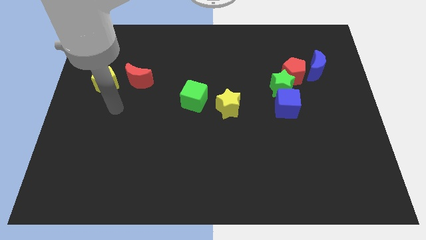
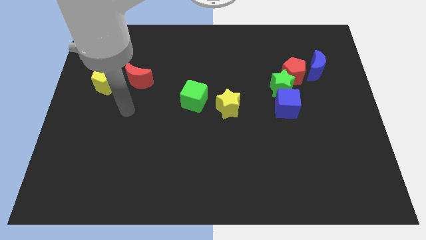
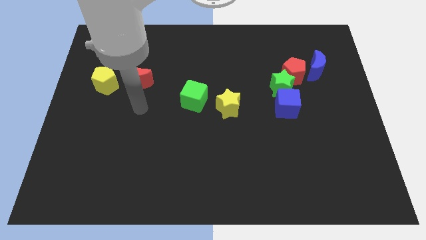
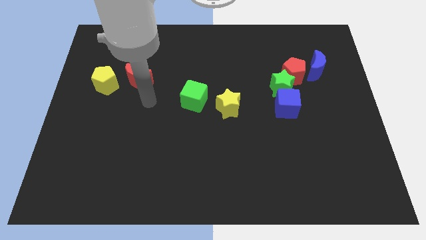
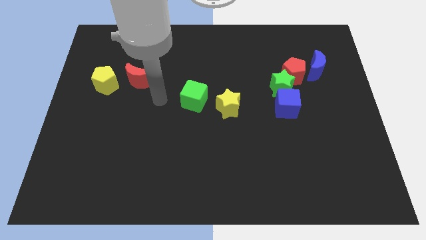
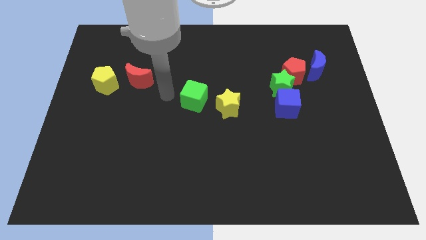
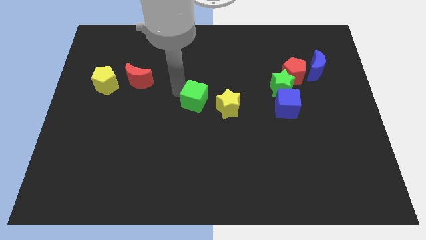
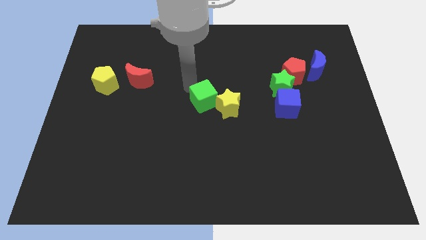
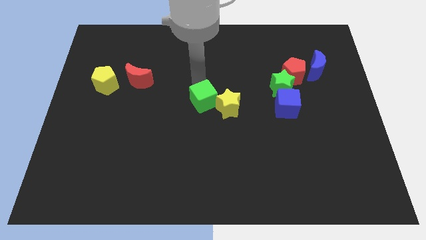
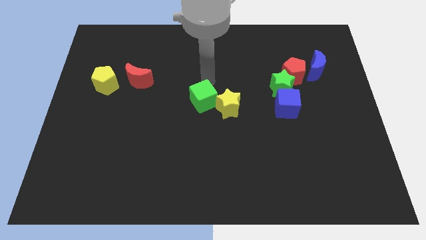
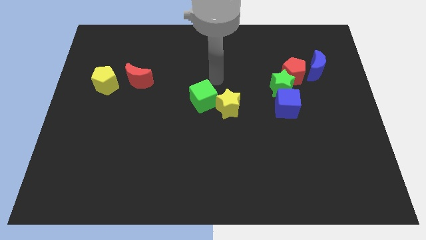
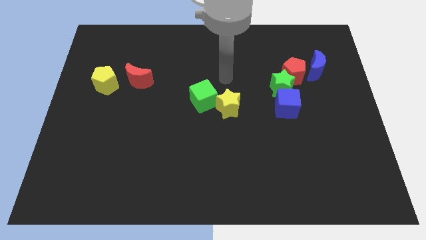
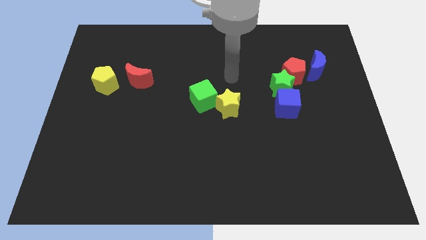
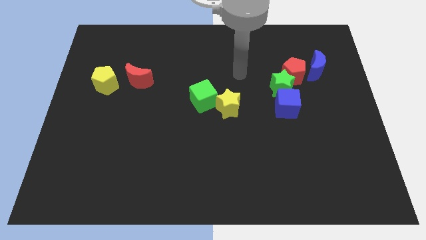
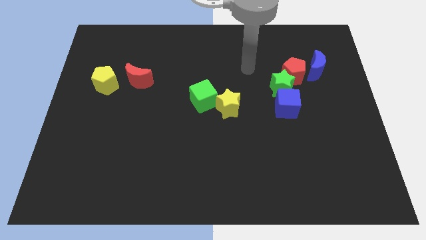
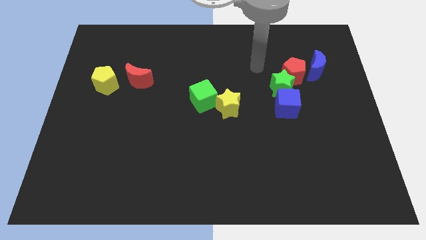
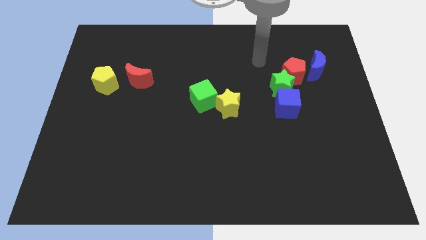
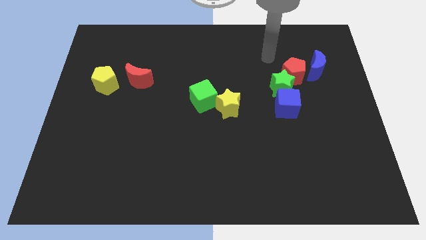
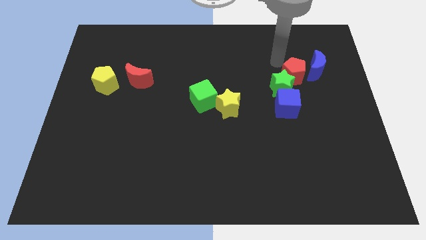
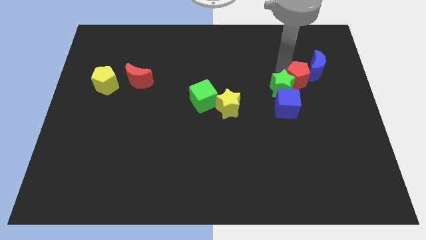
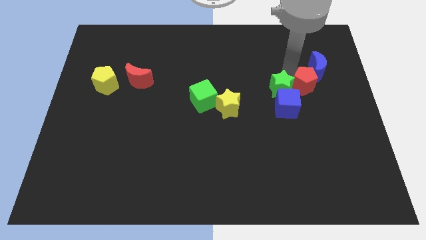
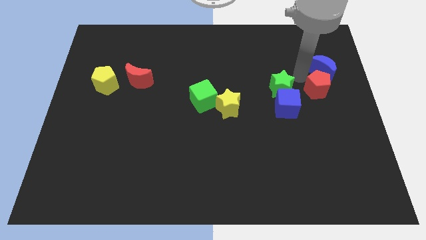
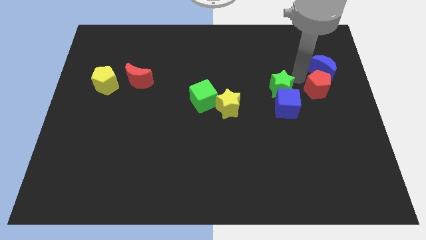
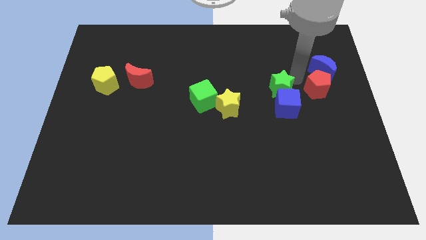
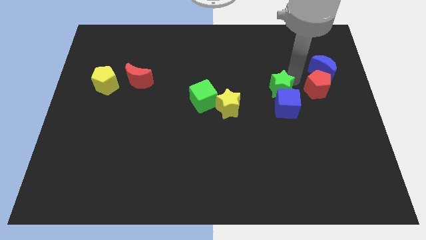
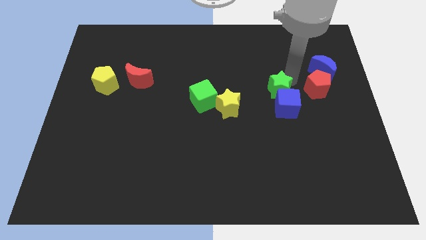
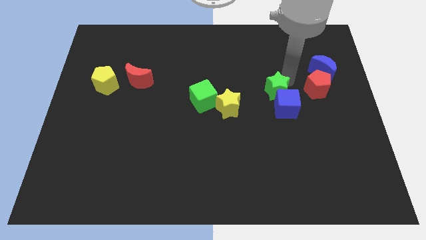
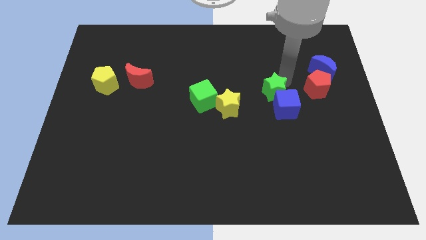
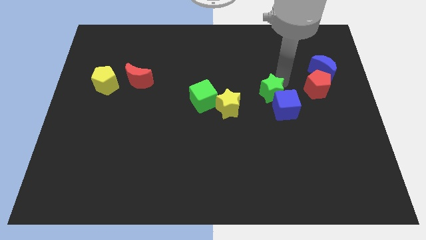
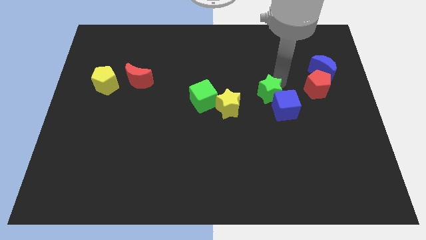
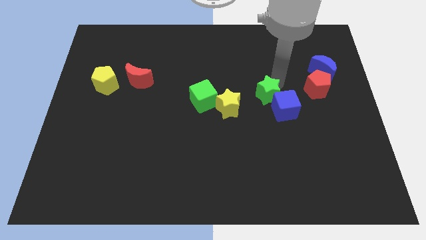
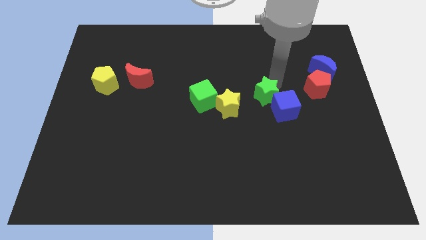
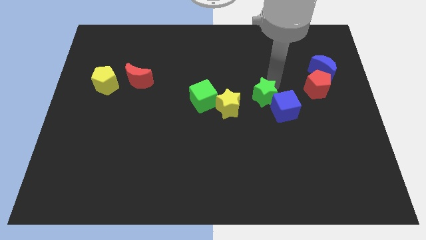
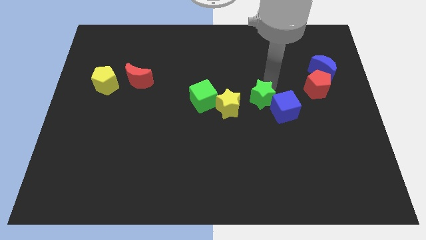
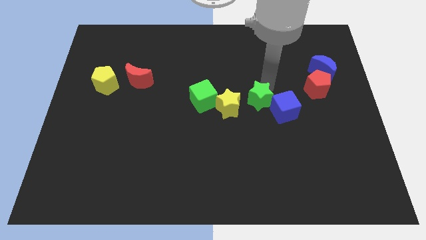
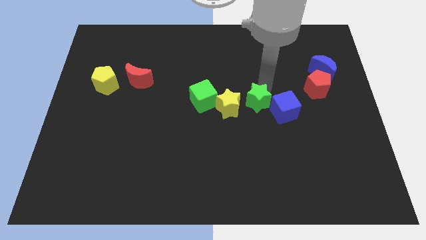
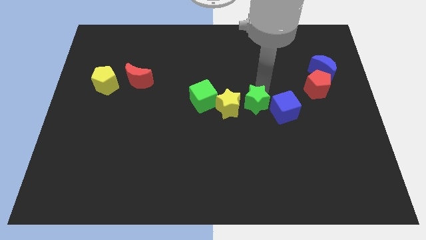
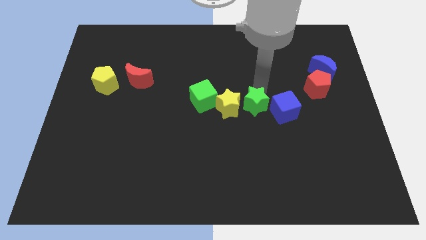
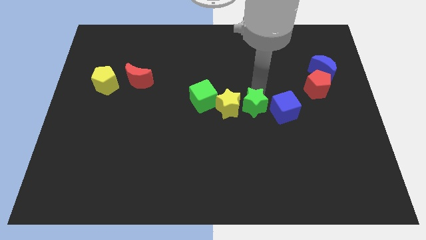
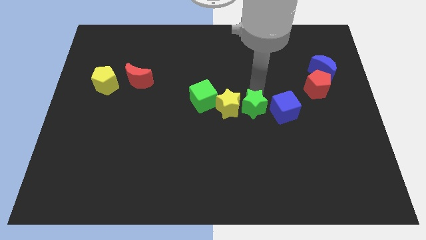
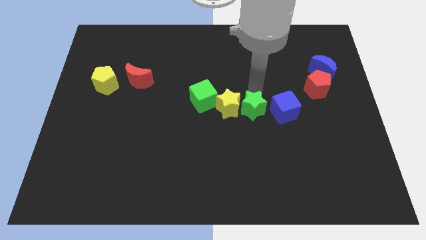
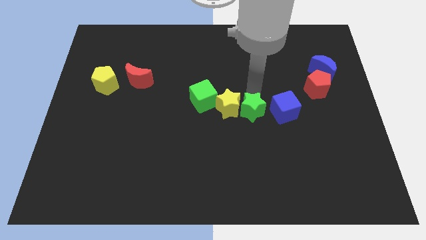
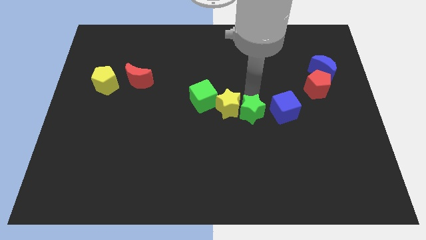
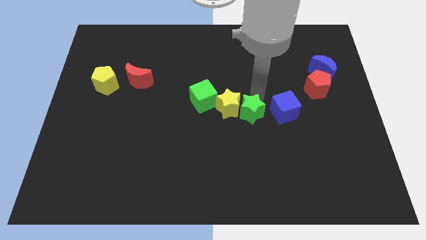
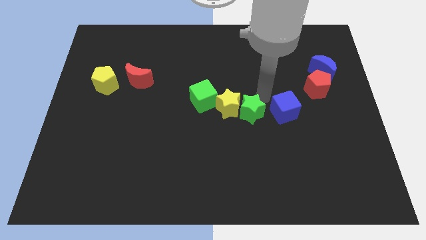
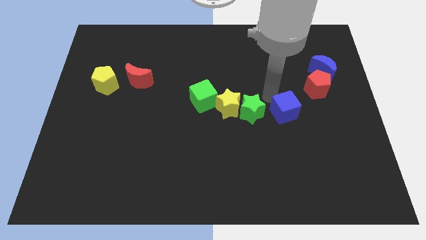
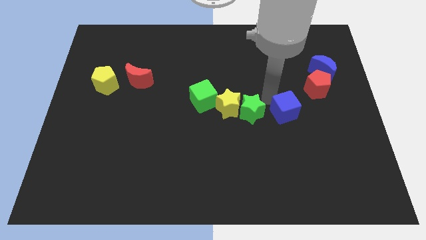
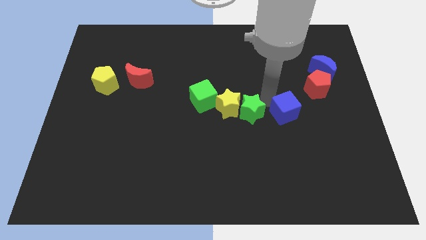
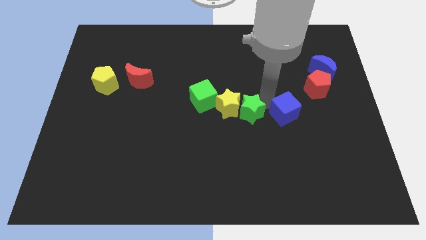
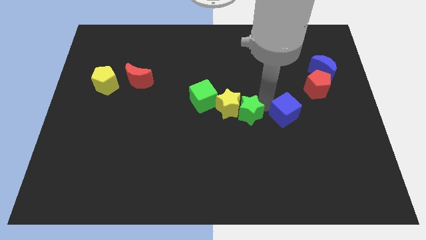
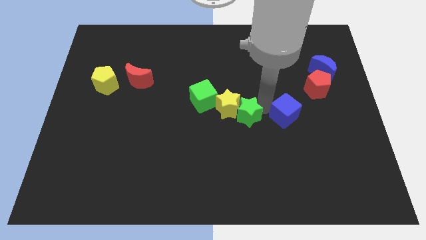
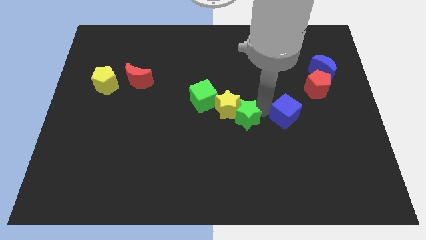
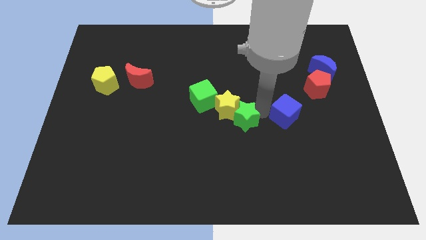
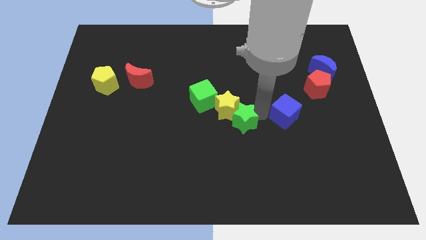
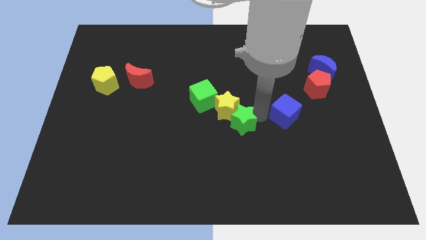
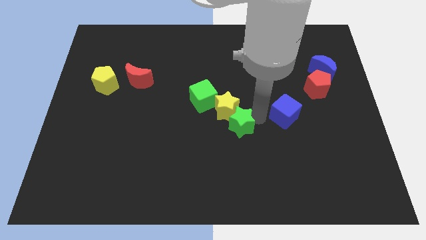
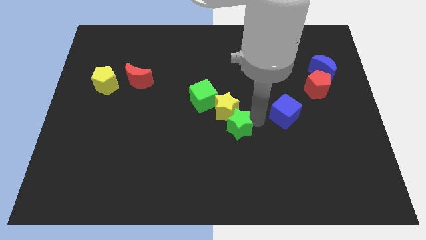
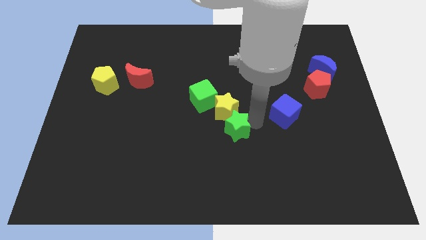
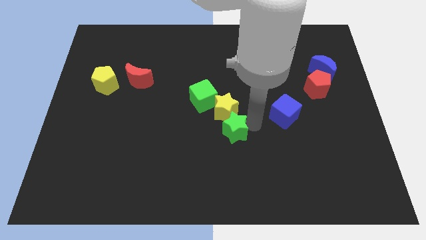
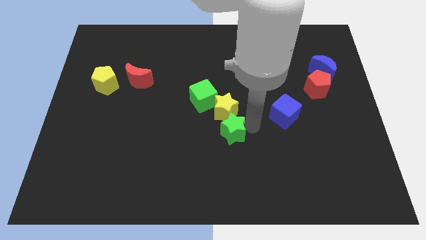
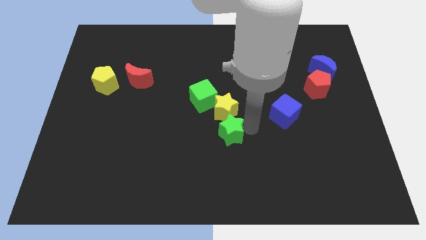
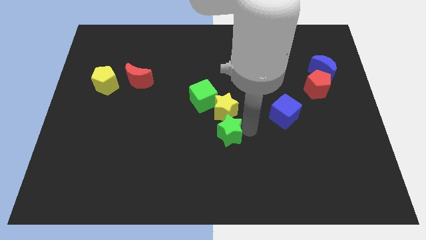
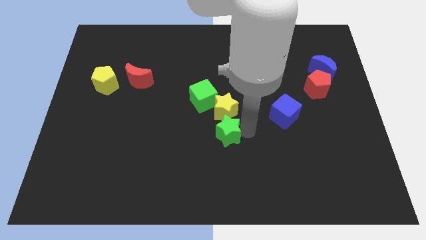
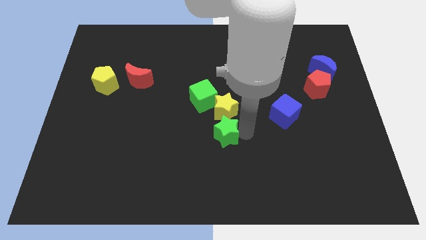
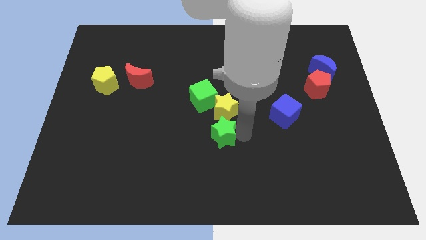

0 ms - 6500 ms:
slide the green star to the bottom of the green cube
